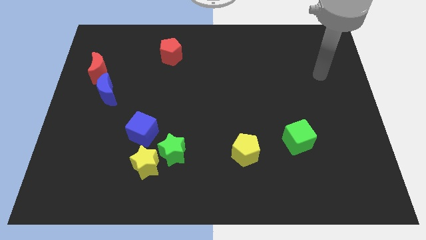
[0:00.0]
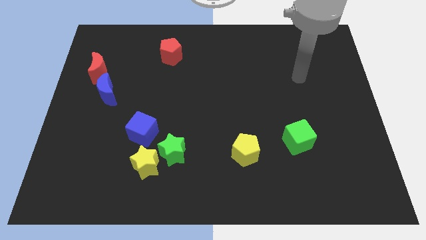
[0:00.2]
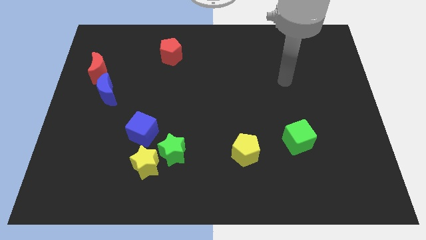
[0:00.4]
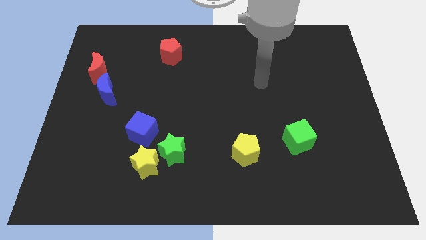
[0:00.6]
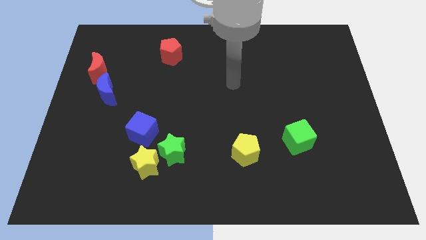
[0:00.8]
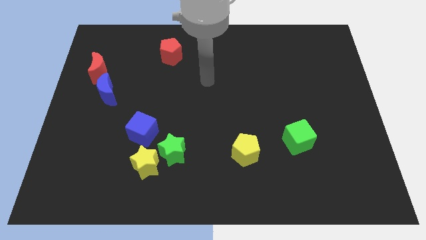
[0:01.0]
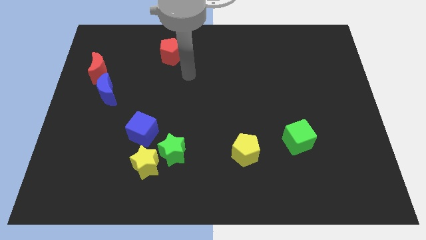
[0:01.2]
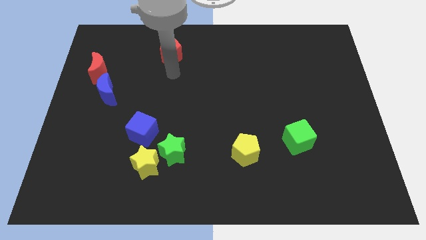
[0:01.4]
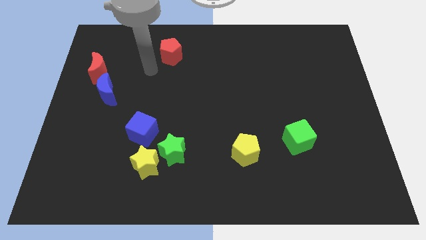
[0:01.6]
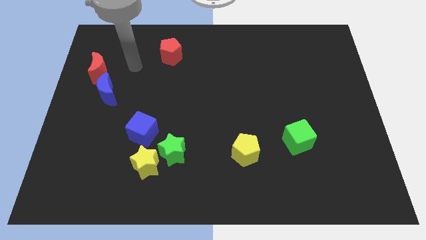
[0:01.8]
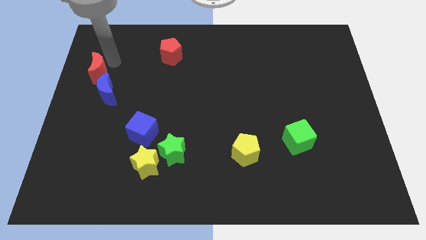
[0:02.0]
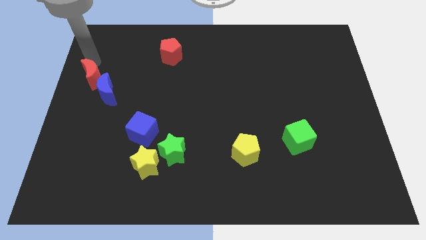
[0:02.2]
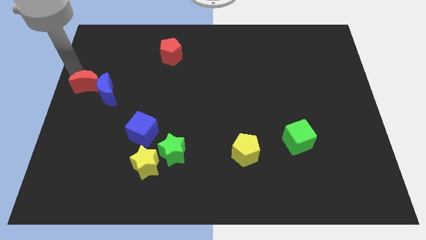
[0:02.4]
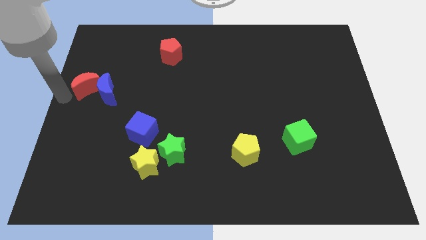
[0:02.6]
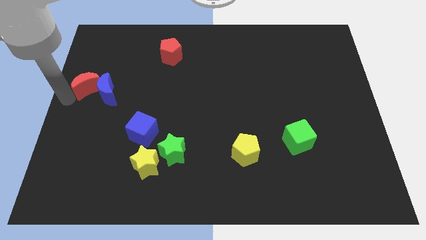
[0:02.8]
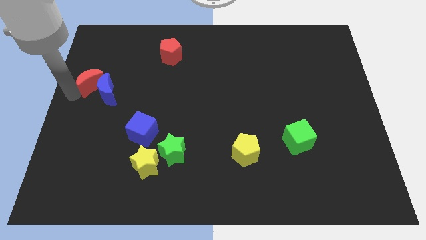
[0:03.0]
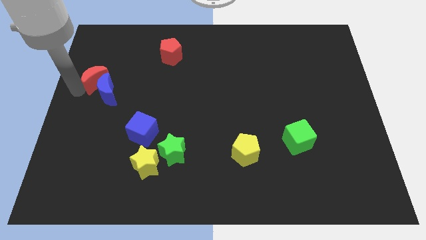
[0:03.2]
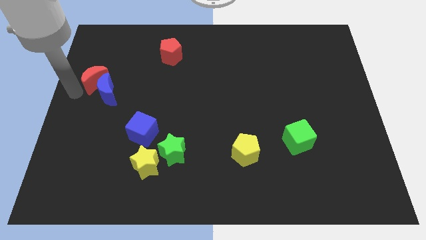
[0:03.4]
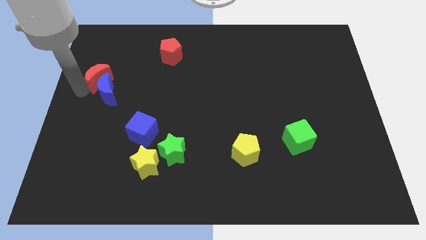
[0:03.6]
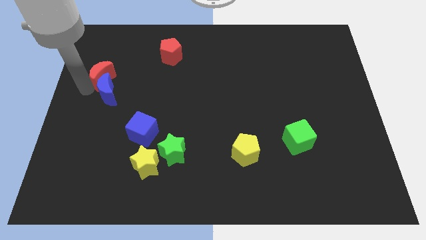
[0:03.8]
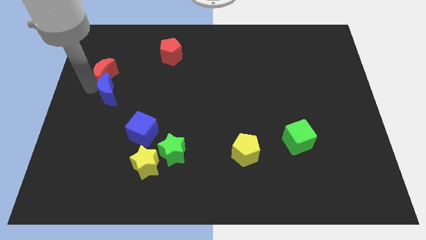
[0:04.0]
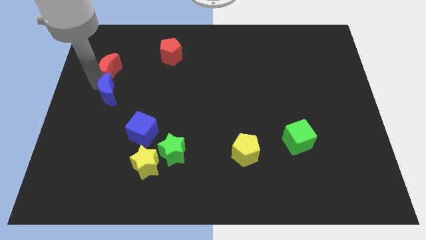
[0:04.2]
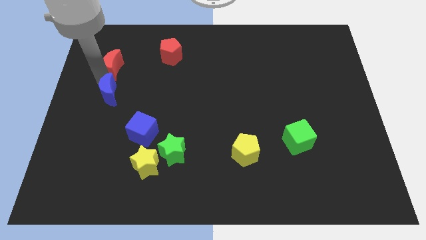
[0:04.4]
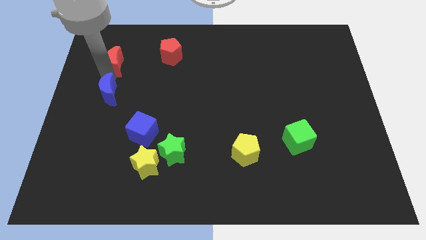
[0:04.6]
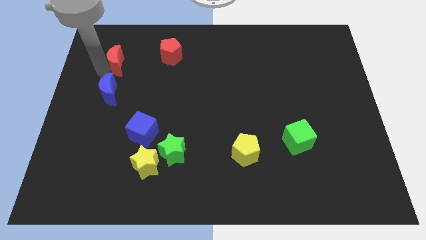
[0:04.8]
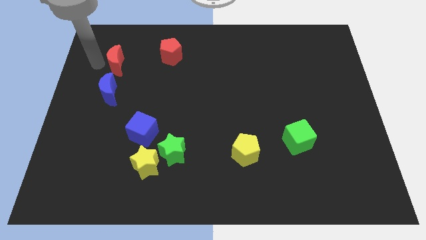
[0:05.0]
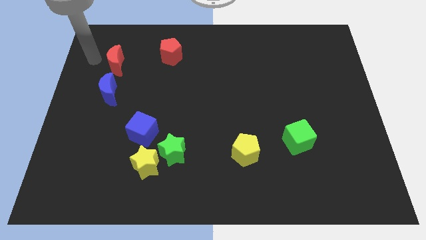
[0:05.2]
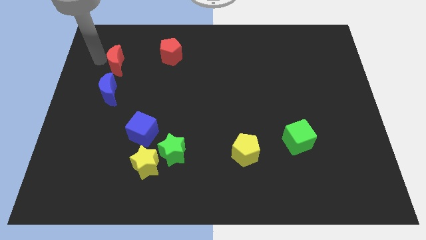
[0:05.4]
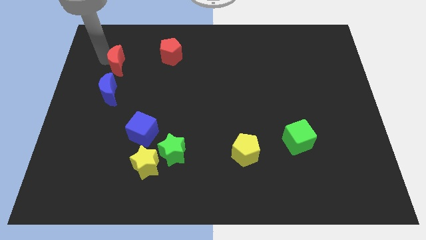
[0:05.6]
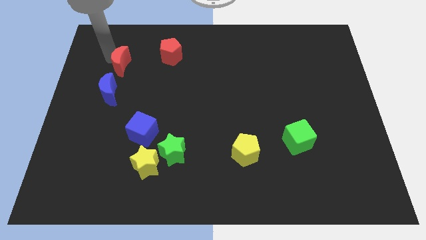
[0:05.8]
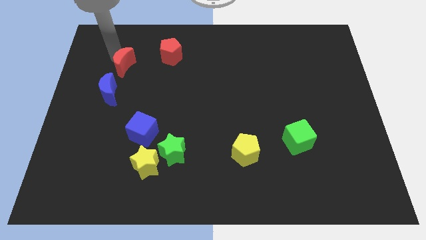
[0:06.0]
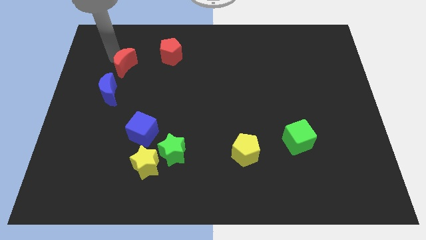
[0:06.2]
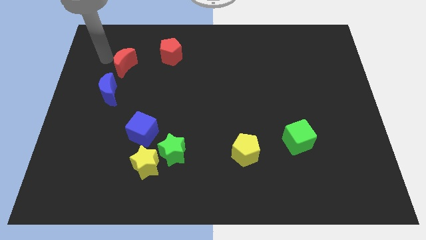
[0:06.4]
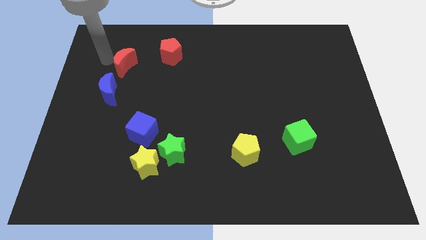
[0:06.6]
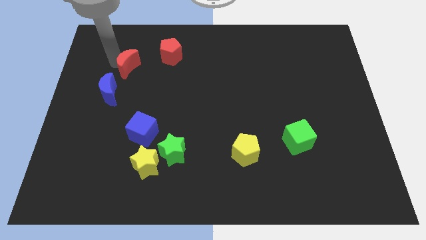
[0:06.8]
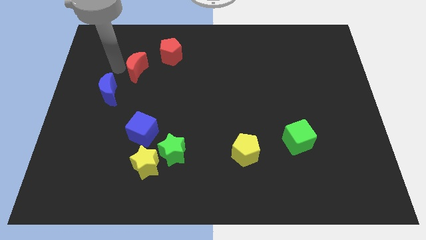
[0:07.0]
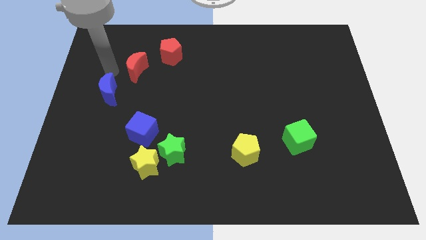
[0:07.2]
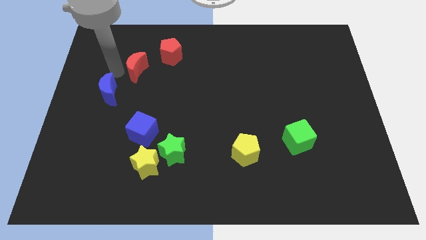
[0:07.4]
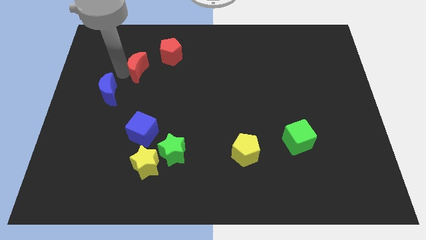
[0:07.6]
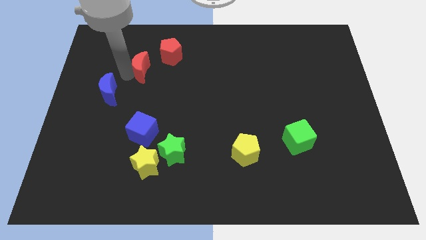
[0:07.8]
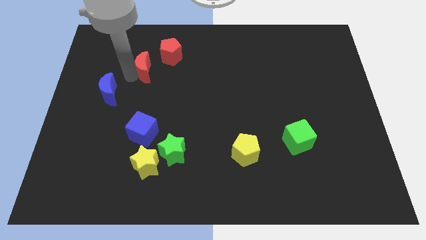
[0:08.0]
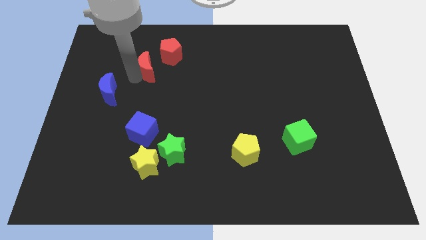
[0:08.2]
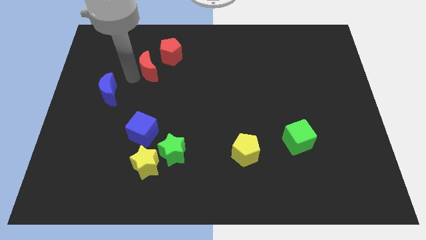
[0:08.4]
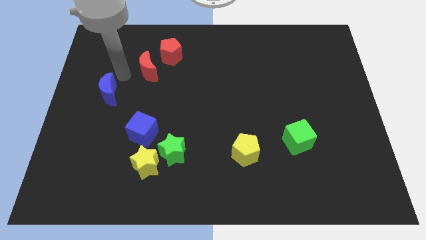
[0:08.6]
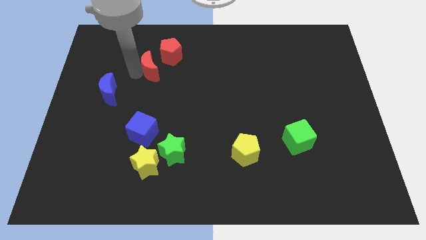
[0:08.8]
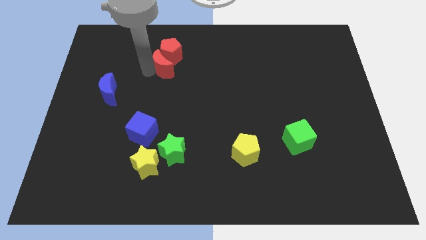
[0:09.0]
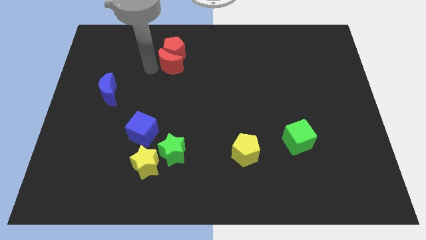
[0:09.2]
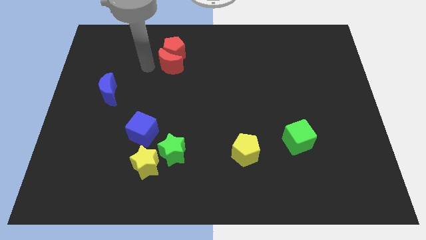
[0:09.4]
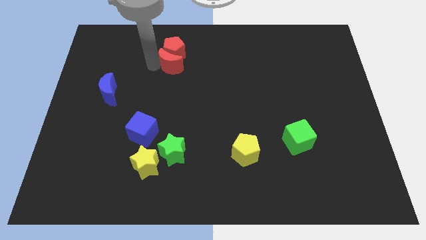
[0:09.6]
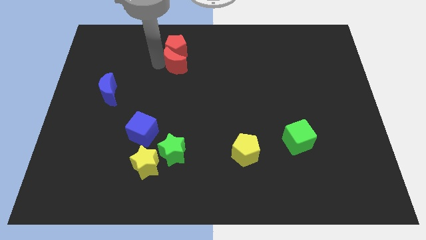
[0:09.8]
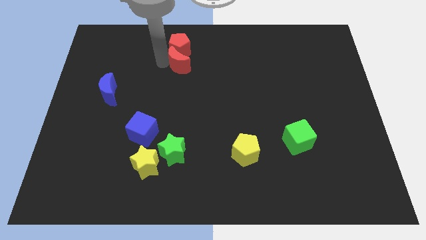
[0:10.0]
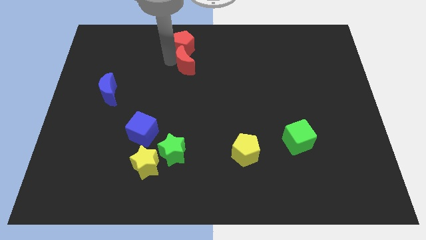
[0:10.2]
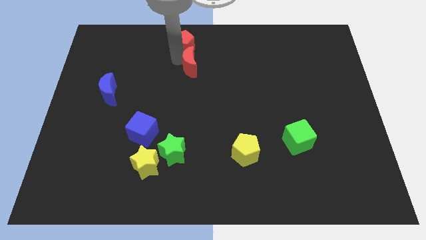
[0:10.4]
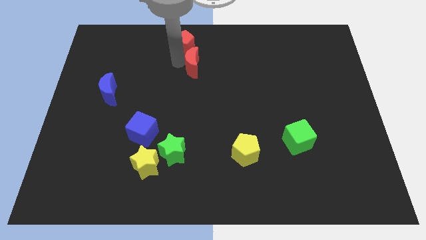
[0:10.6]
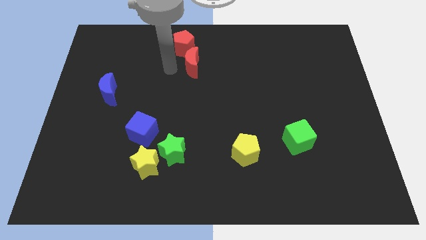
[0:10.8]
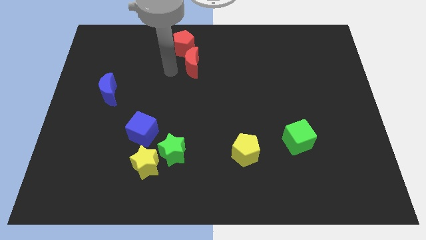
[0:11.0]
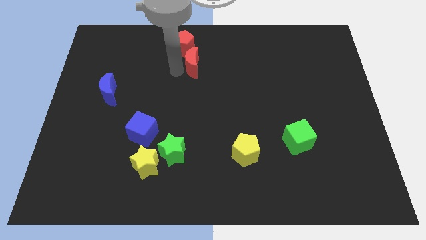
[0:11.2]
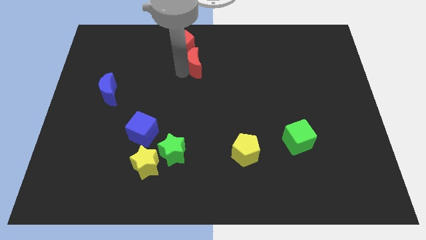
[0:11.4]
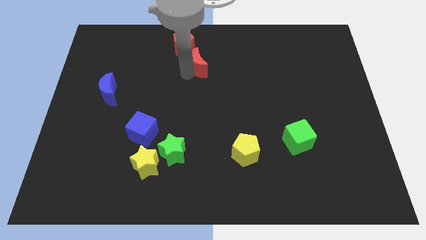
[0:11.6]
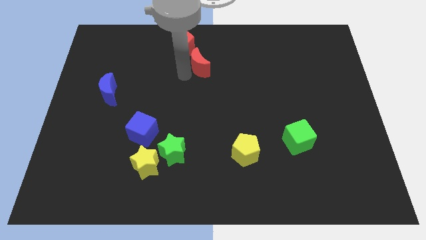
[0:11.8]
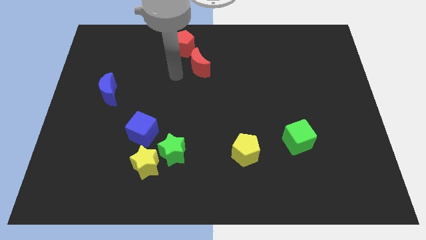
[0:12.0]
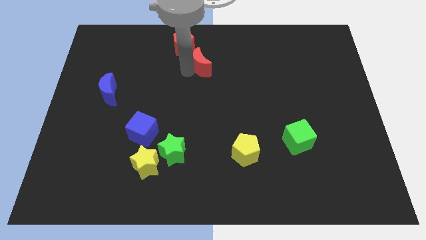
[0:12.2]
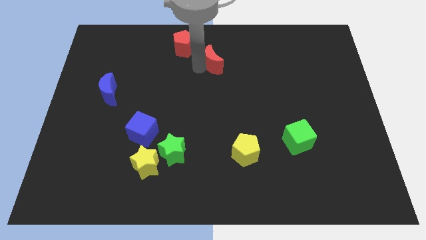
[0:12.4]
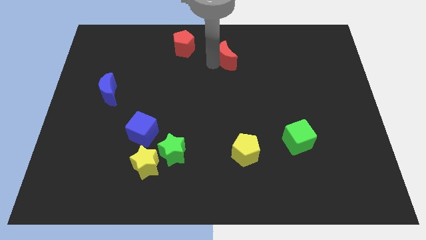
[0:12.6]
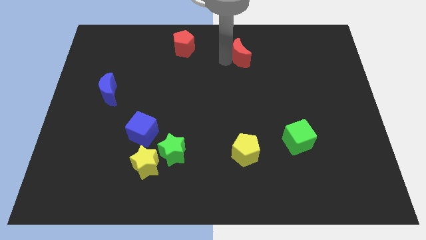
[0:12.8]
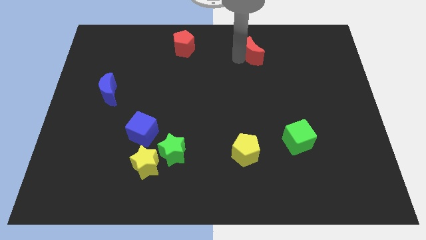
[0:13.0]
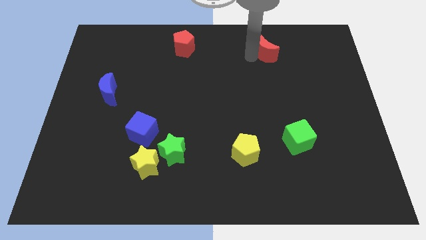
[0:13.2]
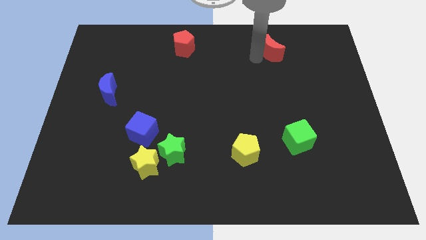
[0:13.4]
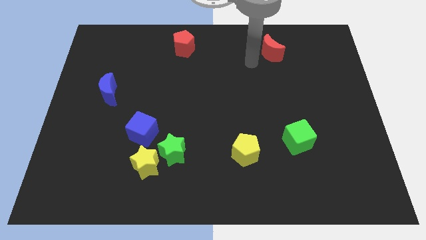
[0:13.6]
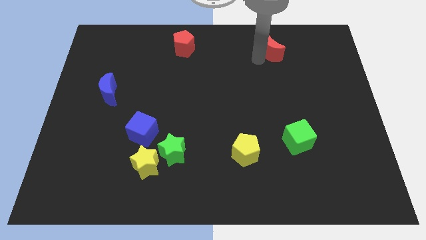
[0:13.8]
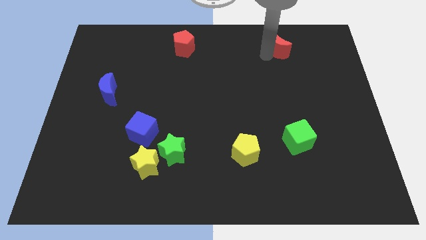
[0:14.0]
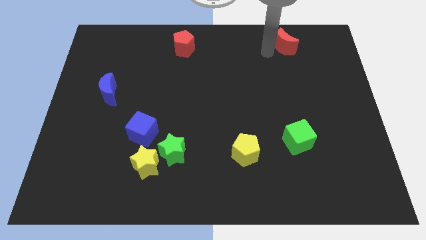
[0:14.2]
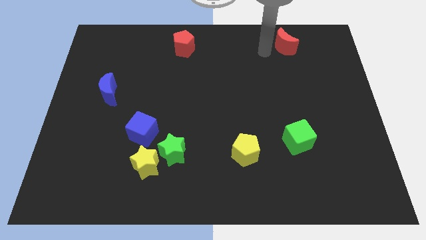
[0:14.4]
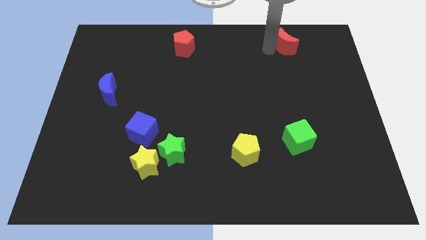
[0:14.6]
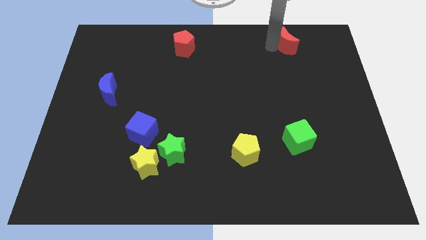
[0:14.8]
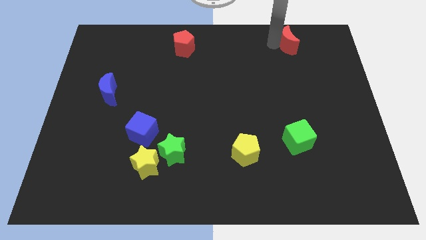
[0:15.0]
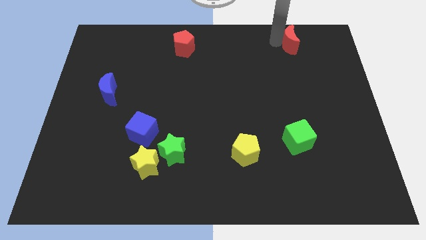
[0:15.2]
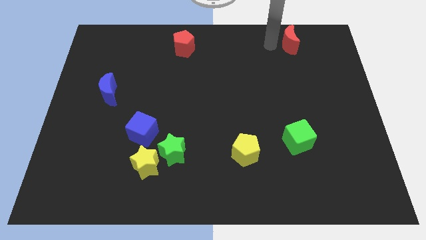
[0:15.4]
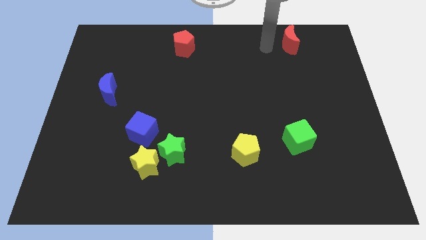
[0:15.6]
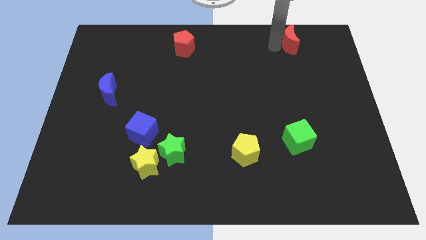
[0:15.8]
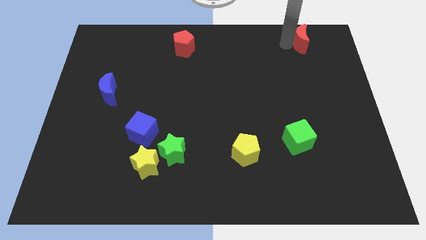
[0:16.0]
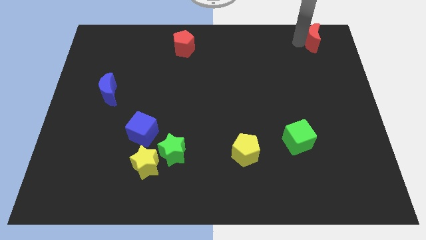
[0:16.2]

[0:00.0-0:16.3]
push the red moon to the upper right corner
